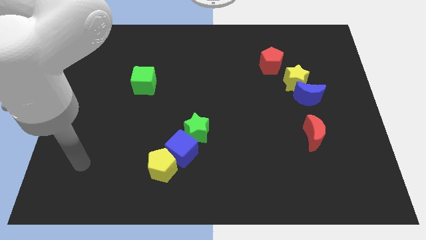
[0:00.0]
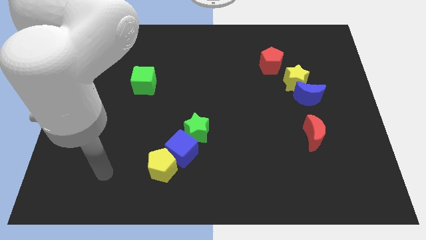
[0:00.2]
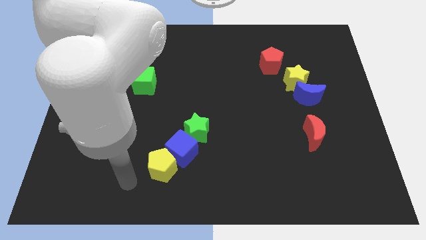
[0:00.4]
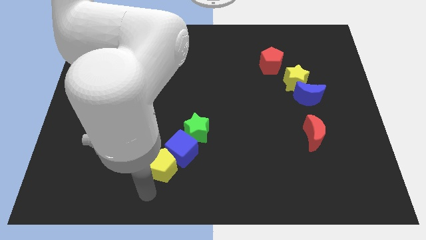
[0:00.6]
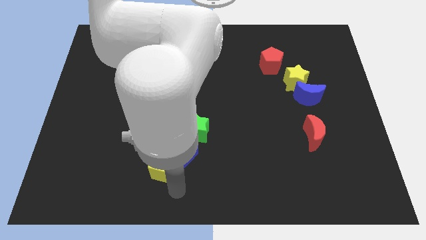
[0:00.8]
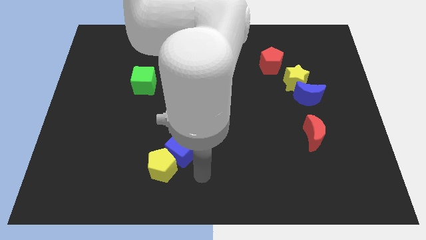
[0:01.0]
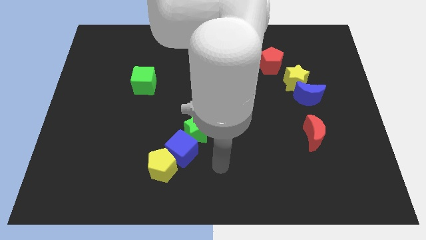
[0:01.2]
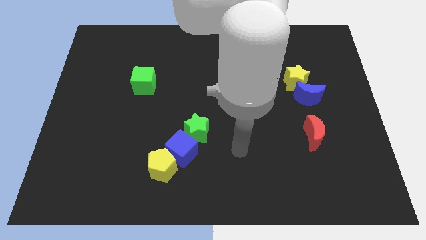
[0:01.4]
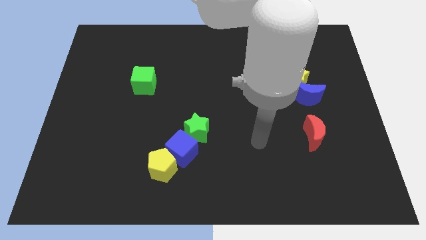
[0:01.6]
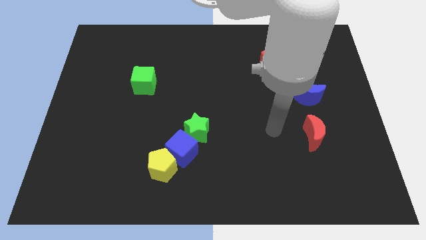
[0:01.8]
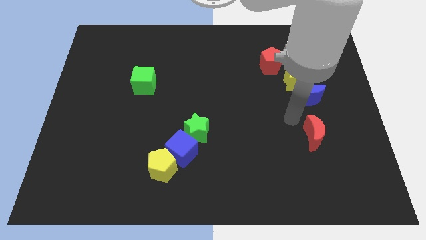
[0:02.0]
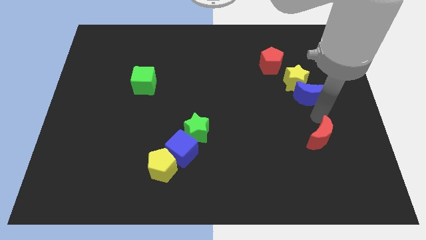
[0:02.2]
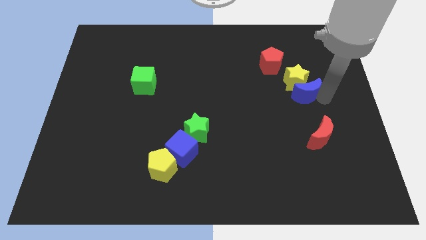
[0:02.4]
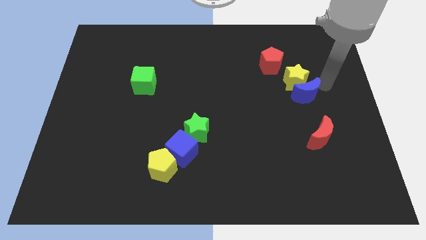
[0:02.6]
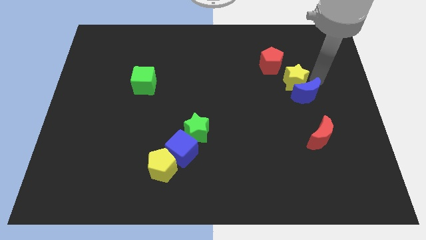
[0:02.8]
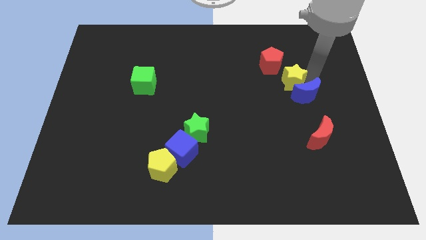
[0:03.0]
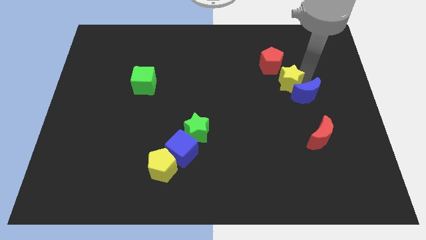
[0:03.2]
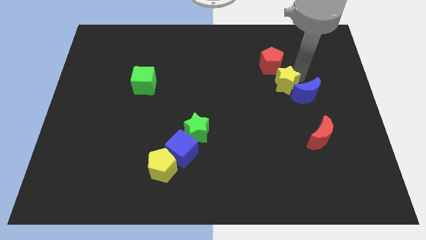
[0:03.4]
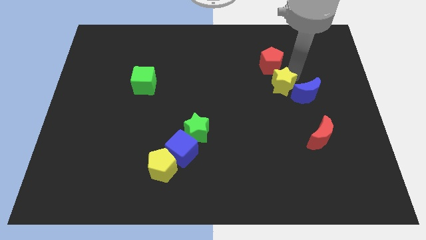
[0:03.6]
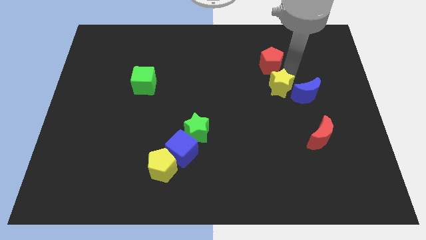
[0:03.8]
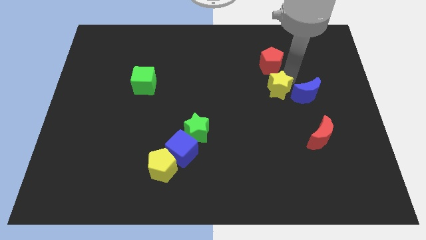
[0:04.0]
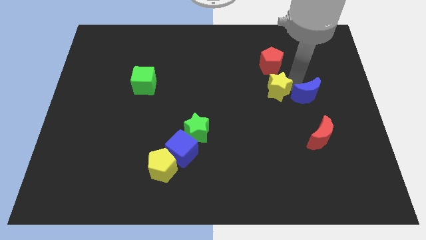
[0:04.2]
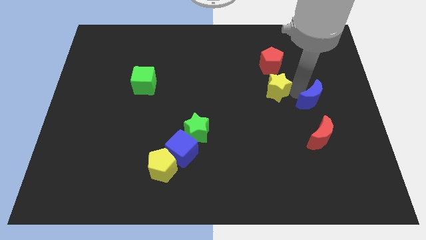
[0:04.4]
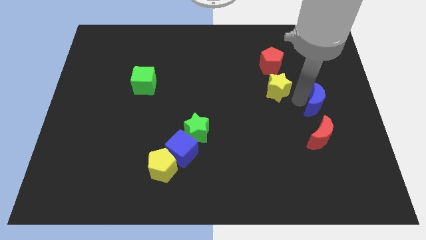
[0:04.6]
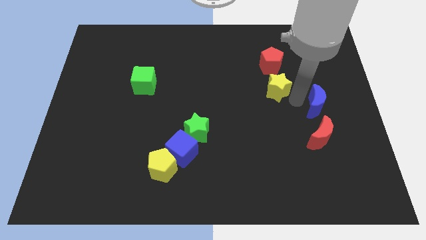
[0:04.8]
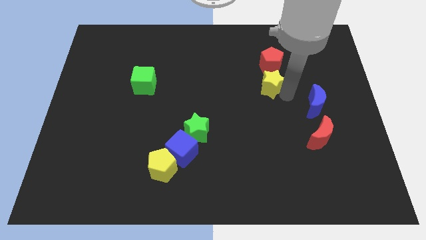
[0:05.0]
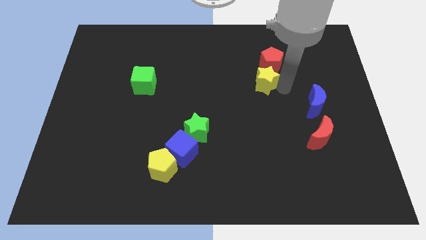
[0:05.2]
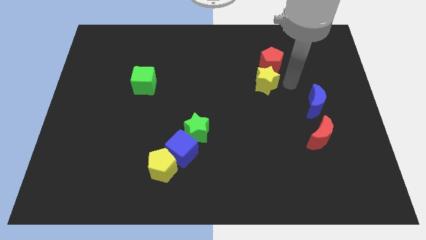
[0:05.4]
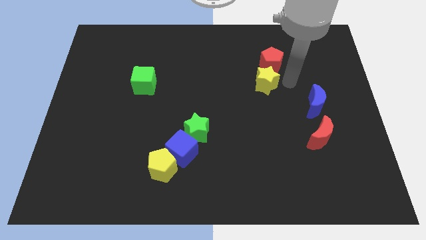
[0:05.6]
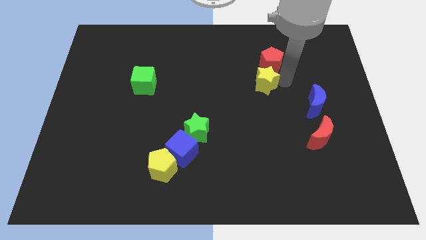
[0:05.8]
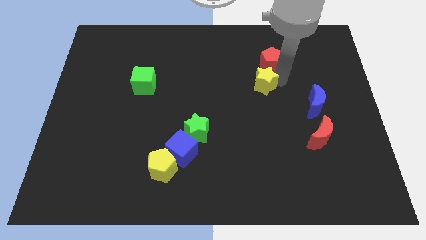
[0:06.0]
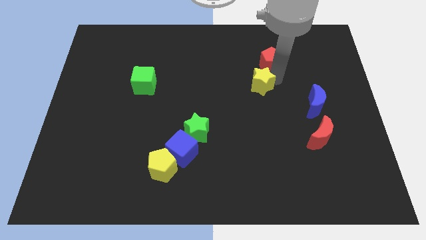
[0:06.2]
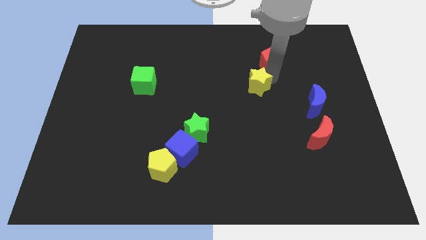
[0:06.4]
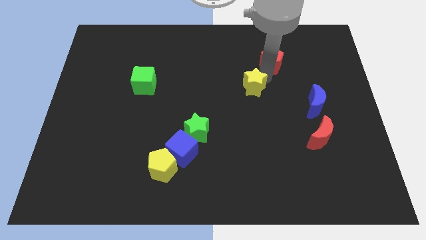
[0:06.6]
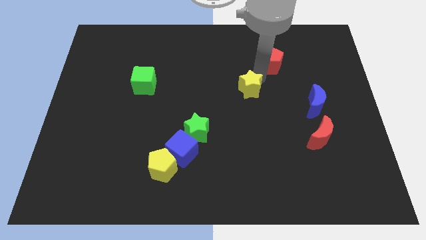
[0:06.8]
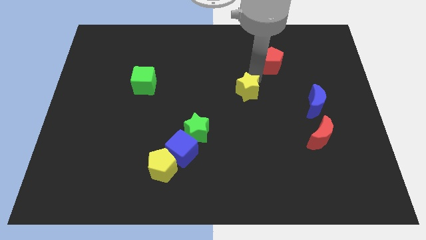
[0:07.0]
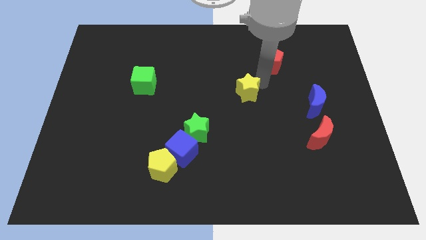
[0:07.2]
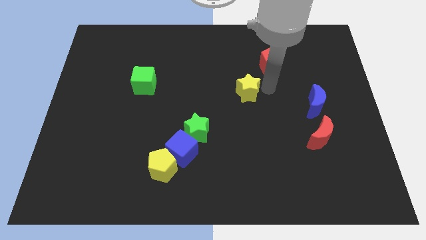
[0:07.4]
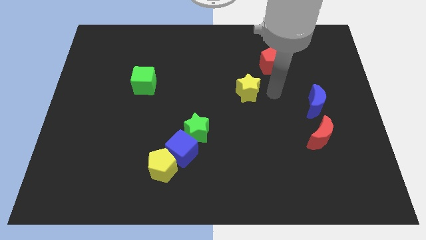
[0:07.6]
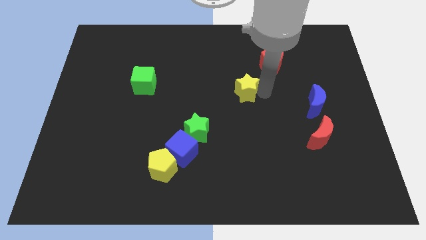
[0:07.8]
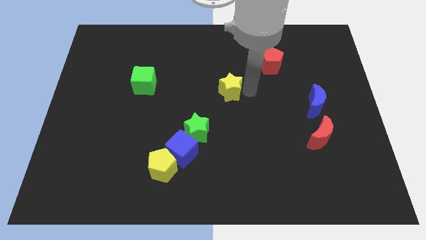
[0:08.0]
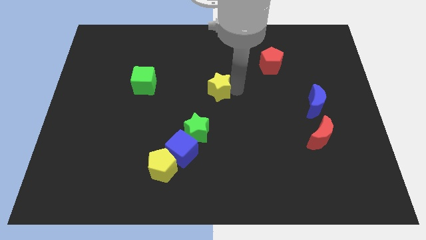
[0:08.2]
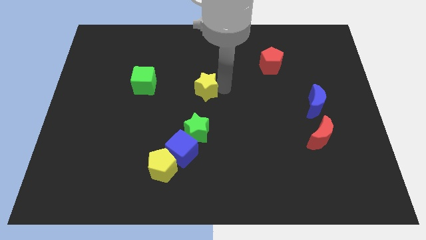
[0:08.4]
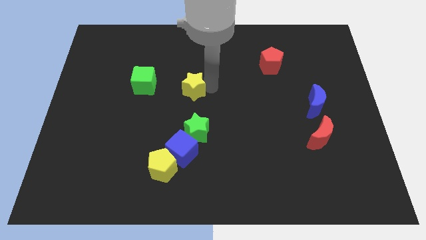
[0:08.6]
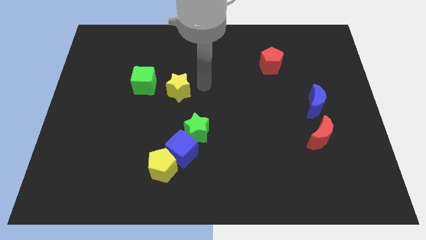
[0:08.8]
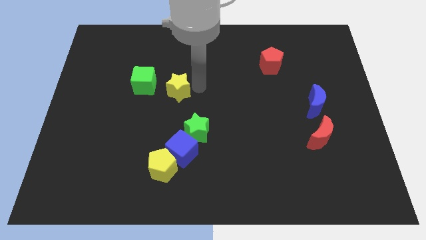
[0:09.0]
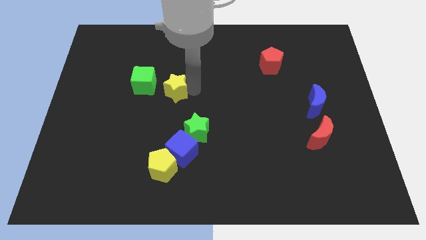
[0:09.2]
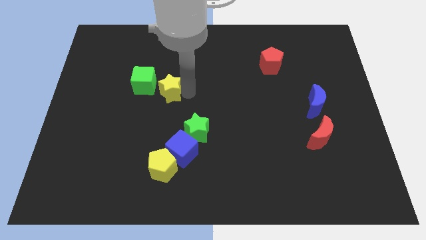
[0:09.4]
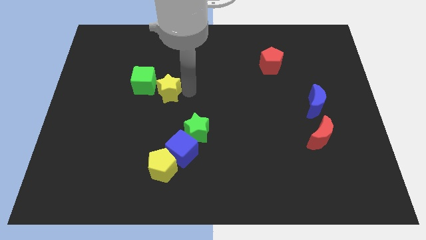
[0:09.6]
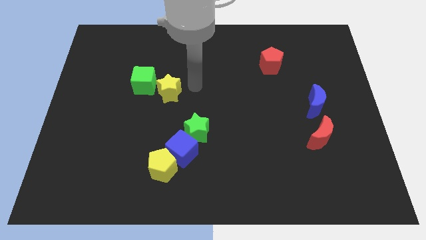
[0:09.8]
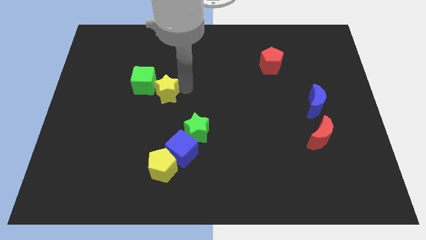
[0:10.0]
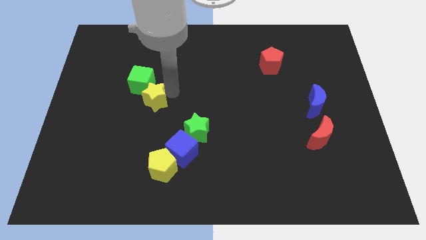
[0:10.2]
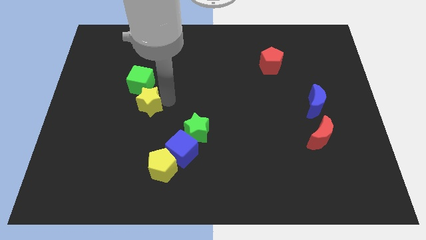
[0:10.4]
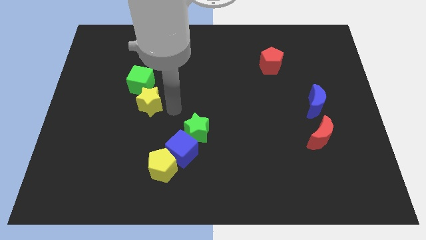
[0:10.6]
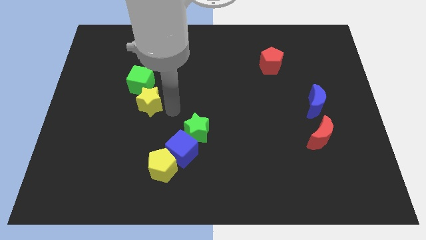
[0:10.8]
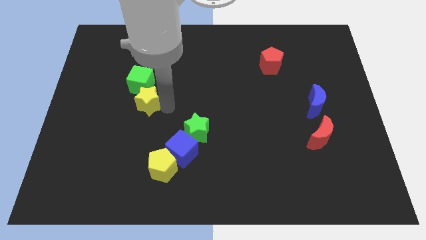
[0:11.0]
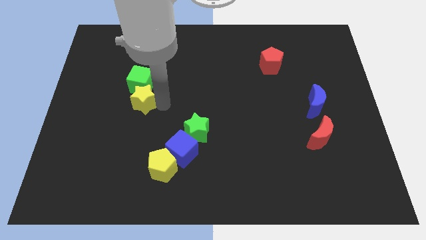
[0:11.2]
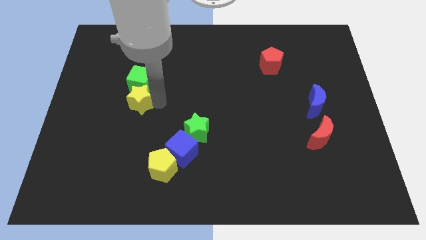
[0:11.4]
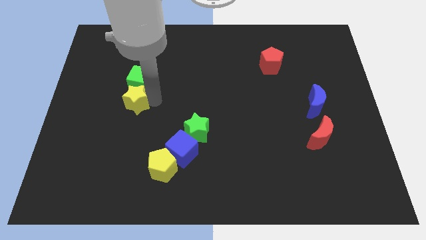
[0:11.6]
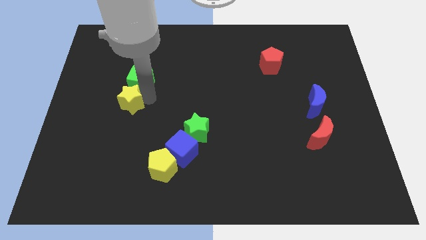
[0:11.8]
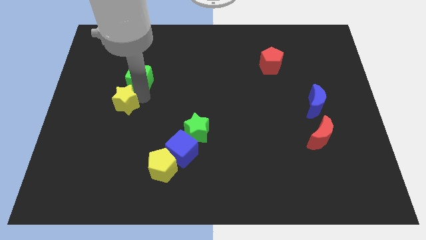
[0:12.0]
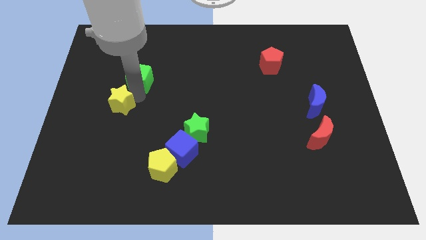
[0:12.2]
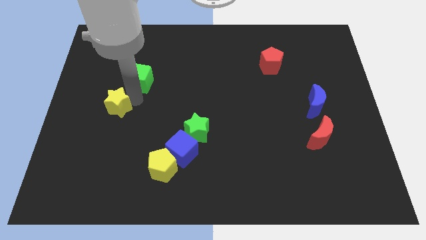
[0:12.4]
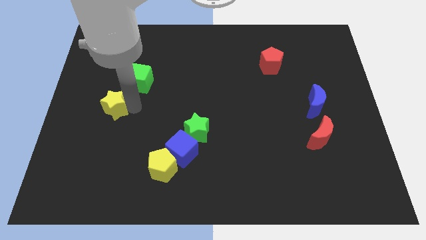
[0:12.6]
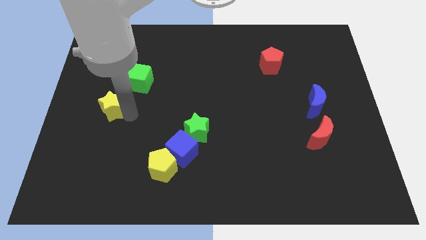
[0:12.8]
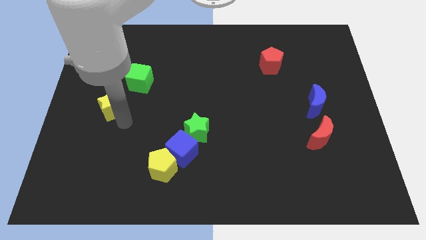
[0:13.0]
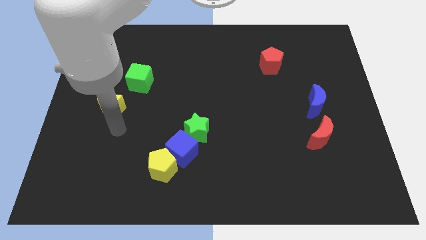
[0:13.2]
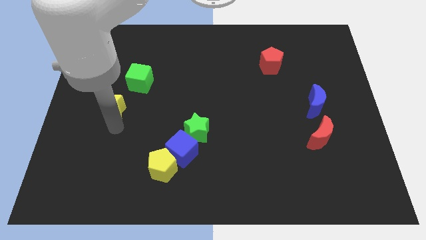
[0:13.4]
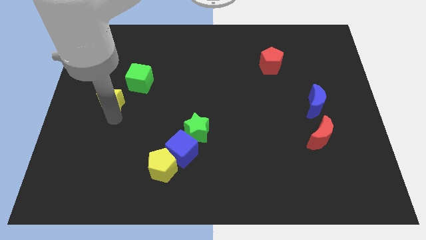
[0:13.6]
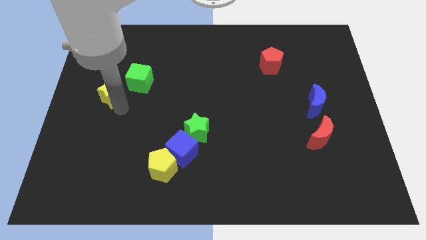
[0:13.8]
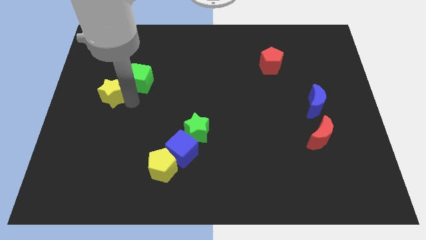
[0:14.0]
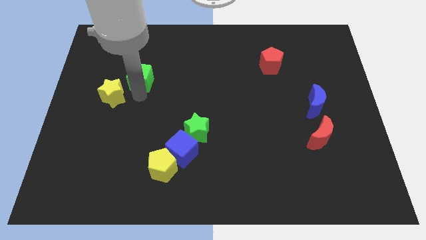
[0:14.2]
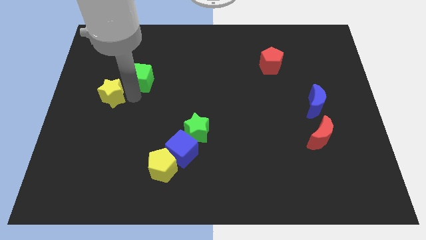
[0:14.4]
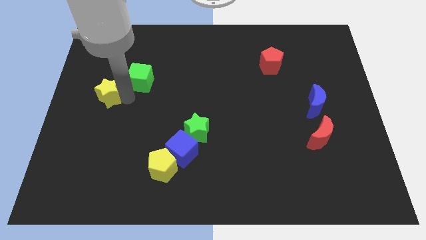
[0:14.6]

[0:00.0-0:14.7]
push the yellow star to the left side
